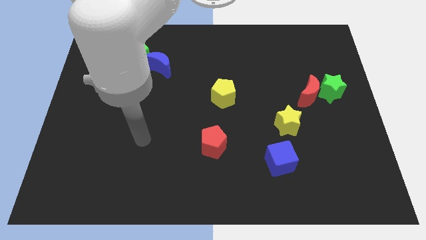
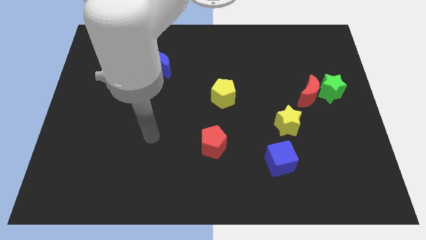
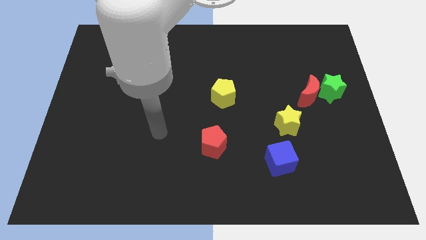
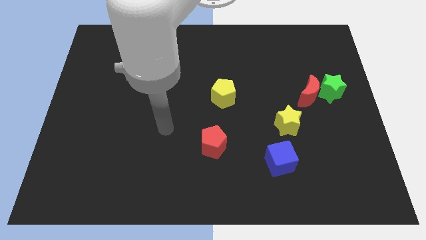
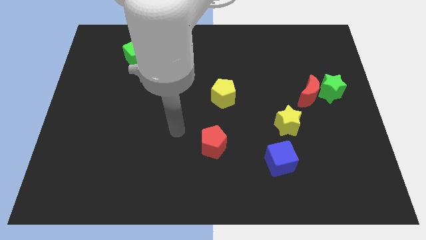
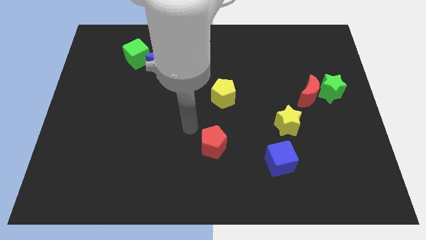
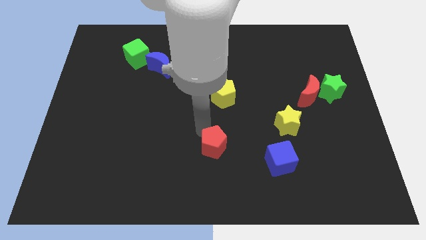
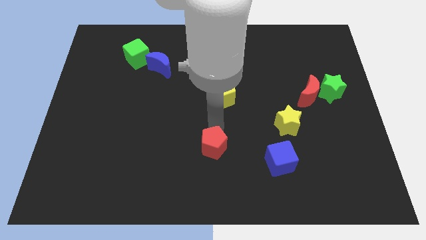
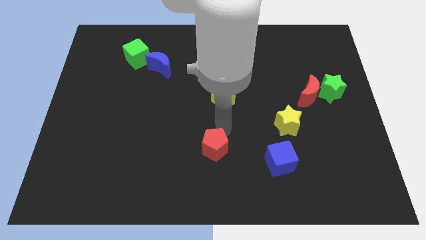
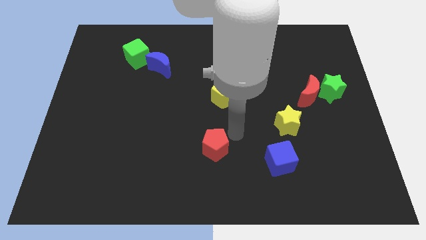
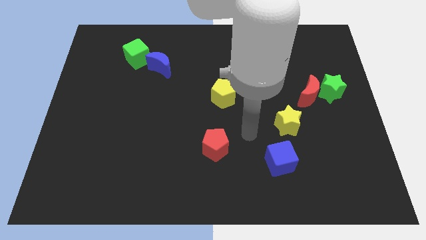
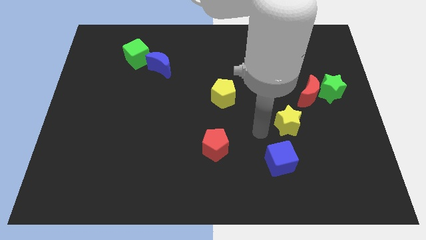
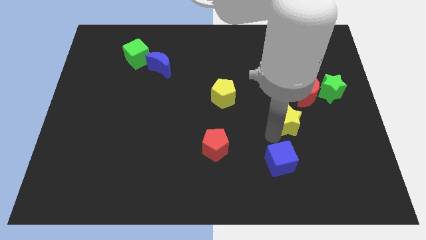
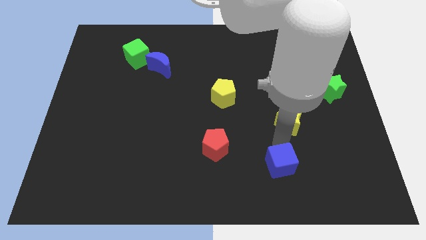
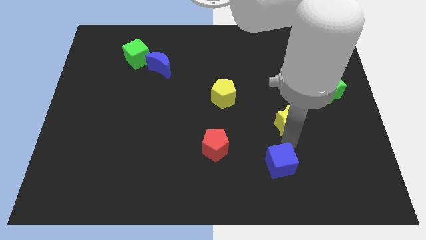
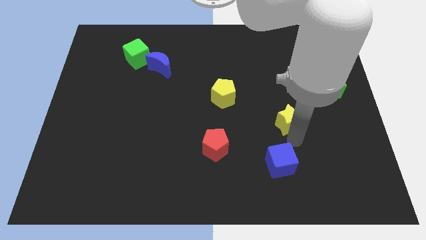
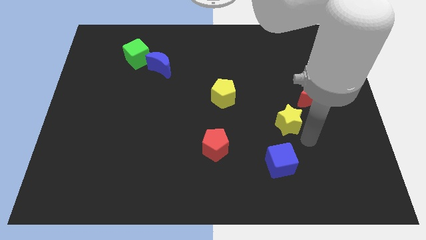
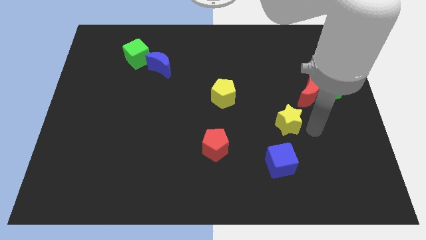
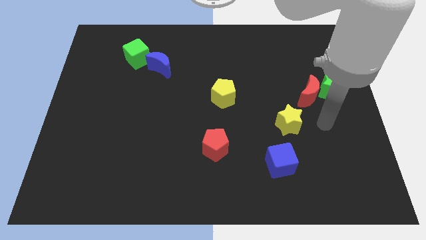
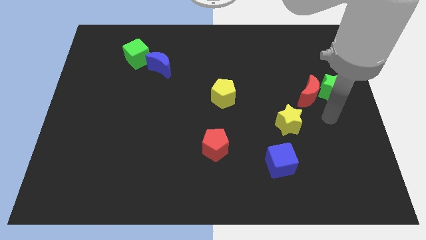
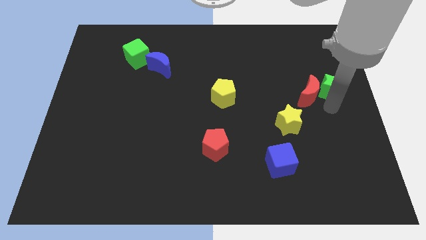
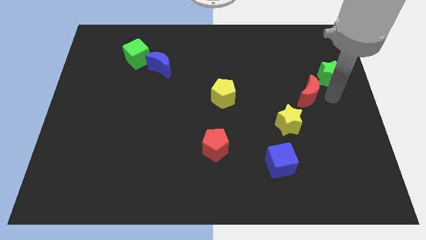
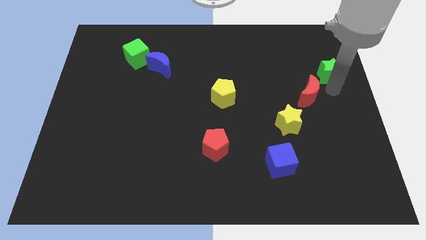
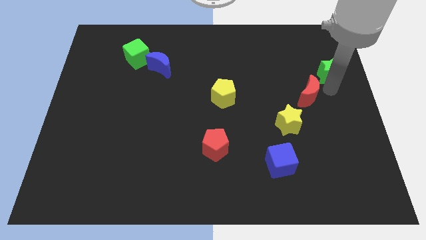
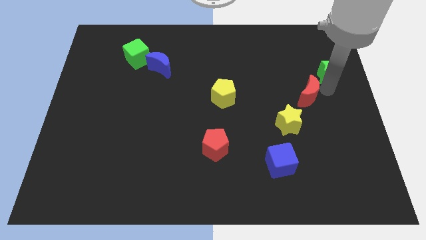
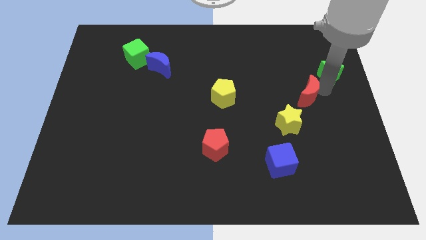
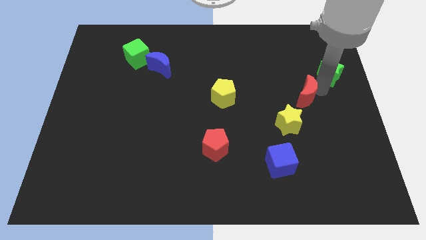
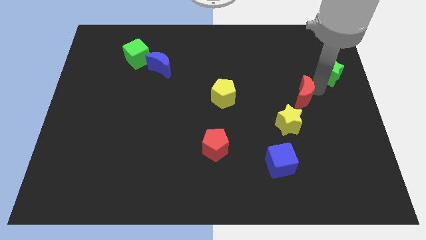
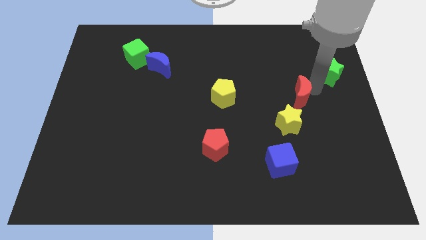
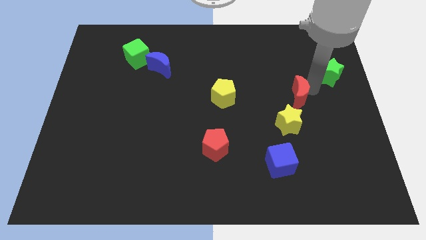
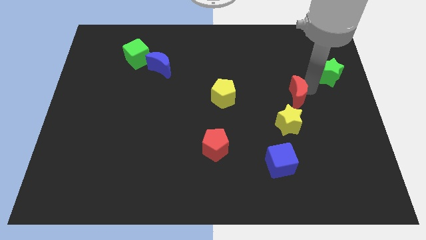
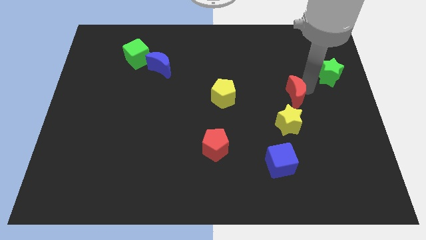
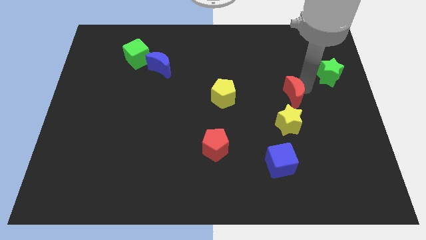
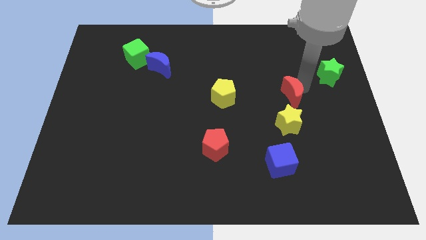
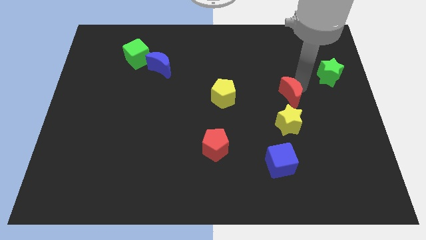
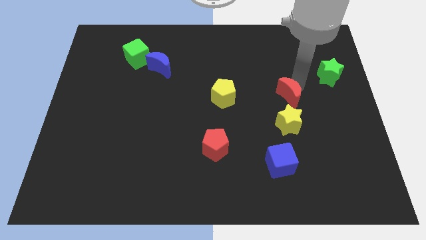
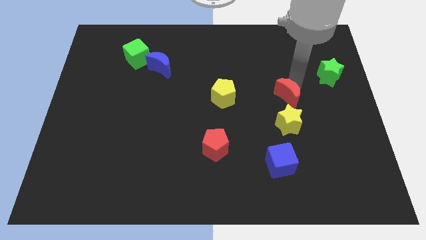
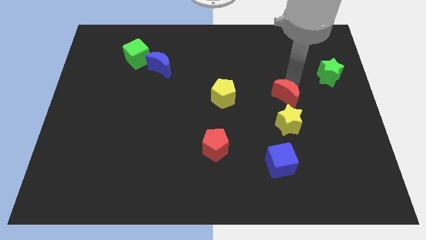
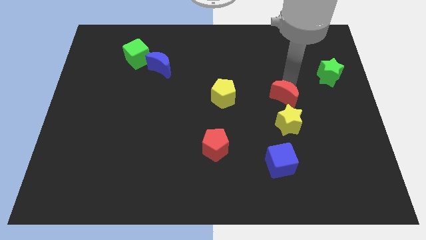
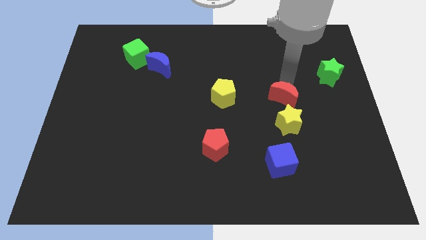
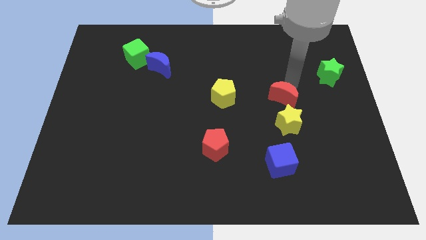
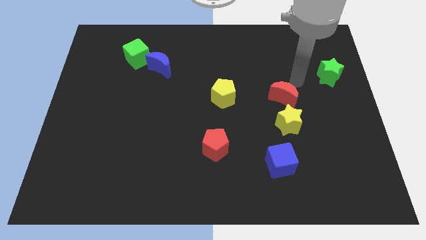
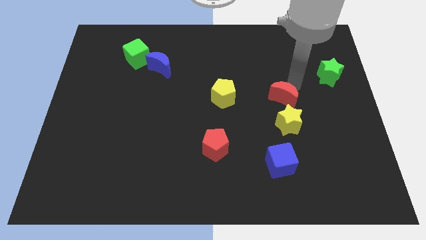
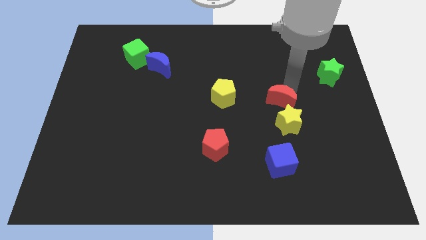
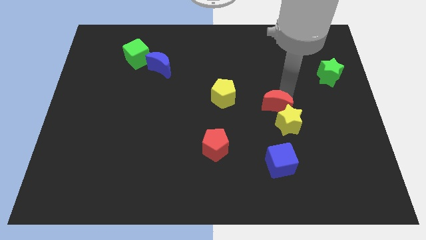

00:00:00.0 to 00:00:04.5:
slide the red moon downwards and to the left somewhat

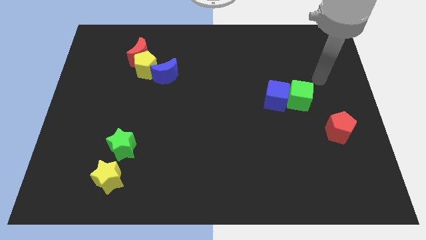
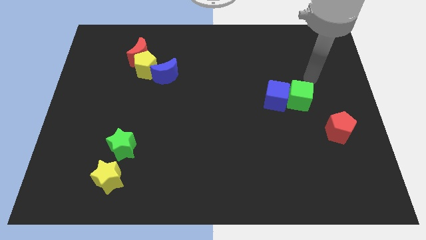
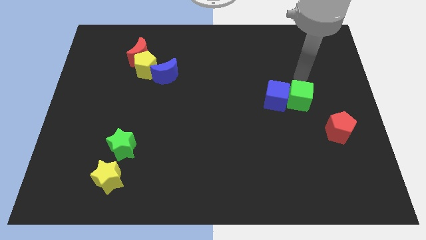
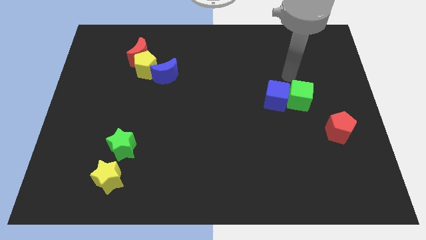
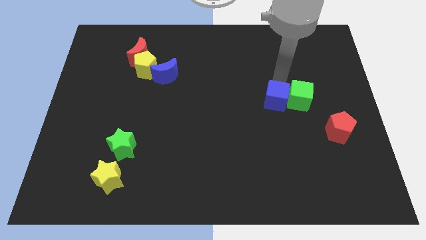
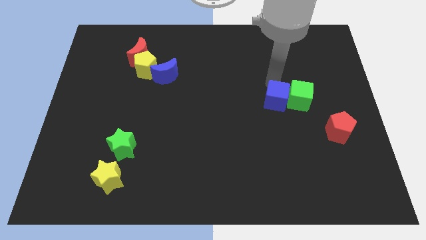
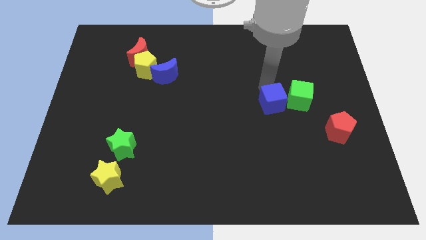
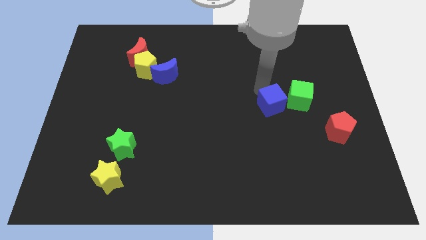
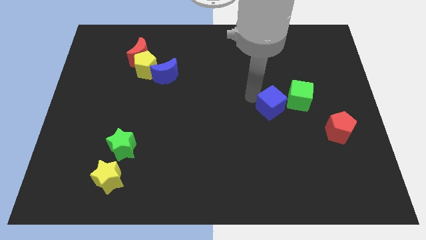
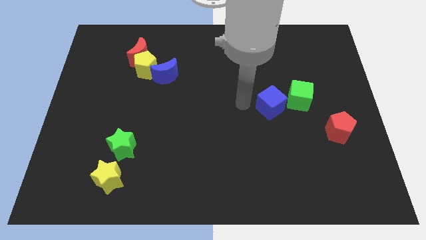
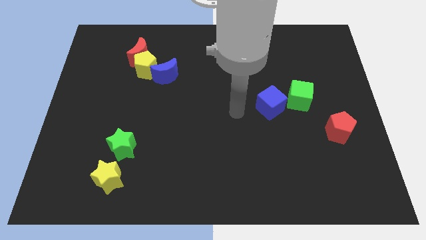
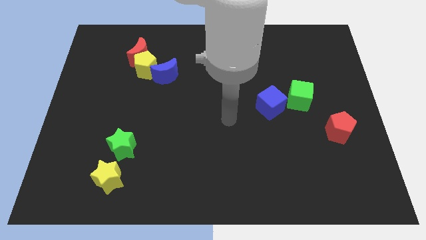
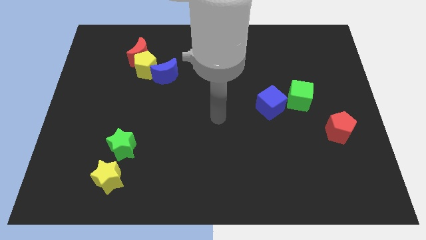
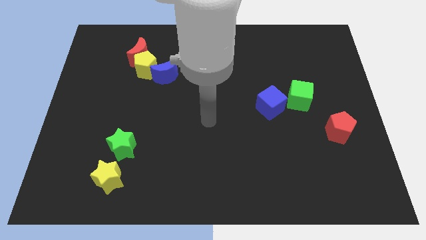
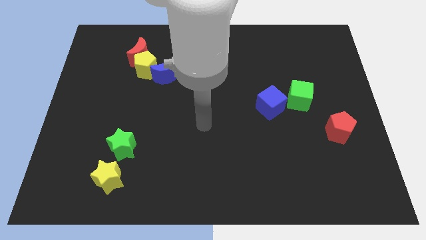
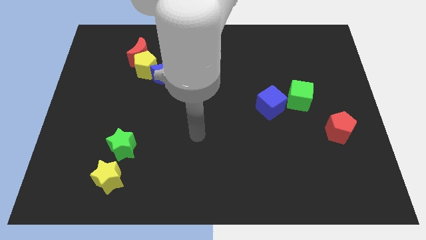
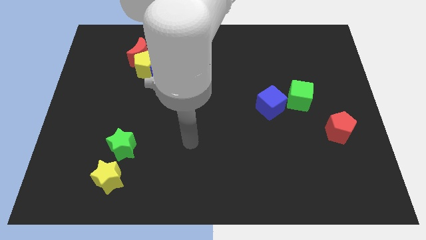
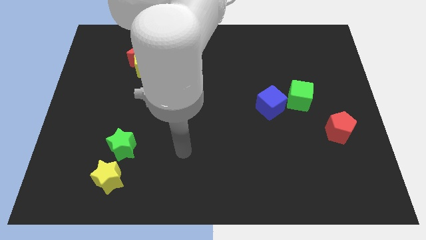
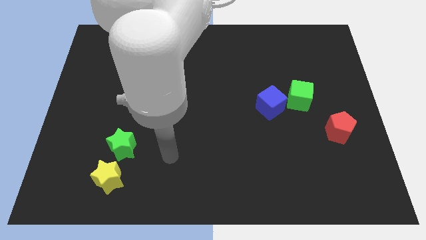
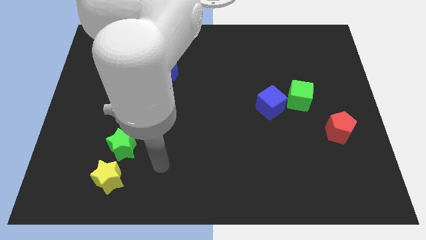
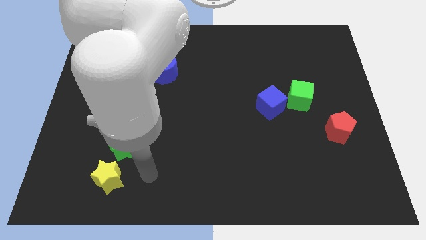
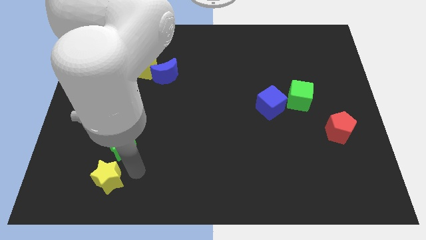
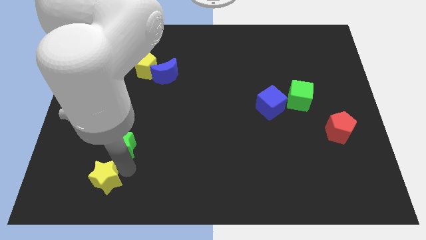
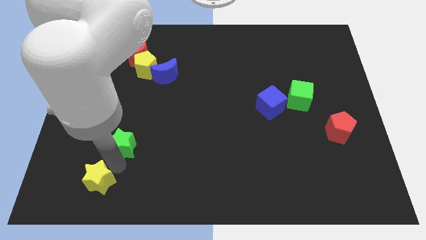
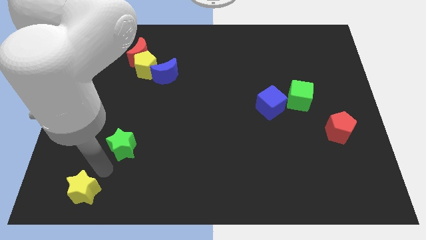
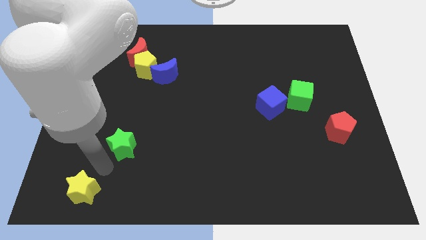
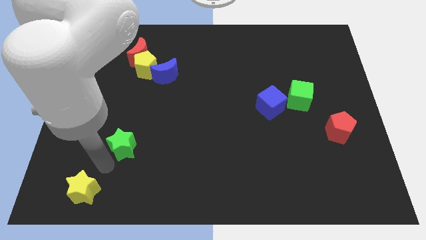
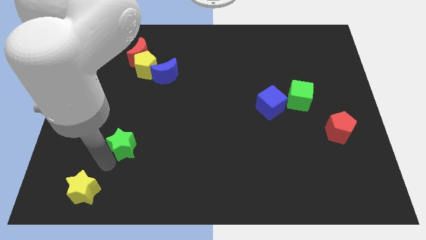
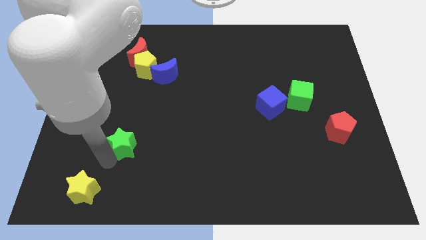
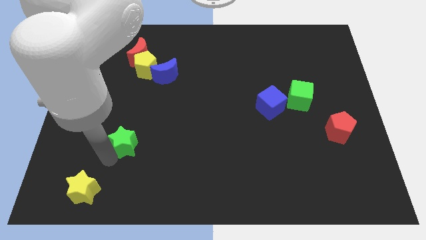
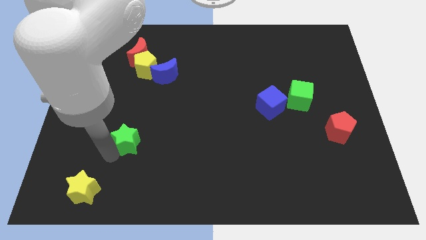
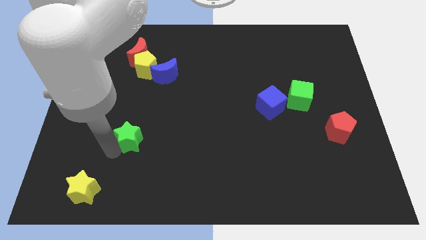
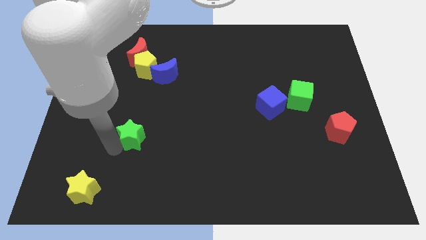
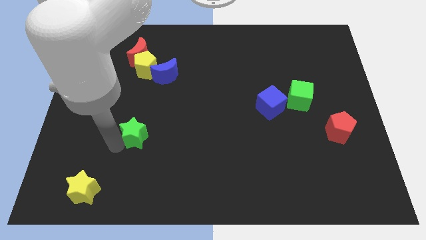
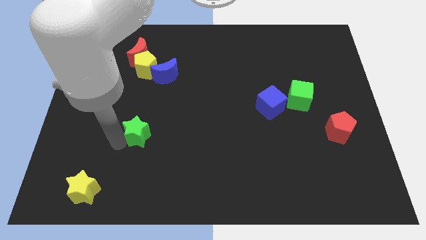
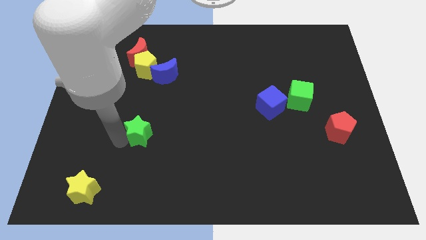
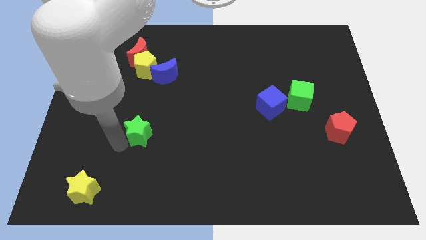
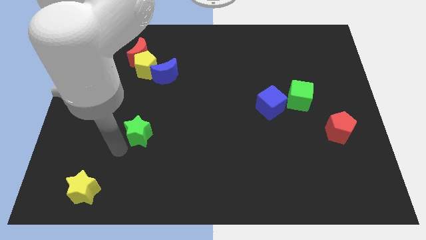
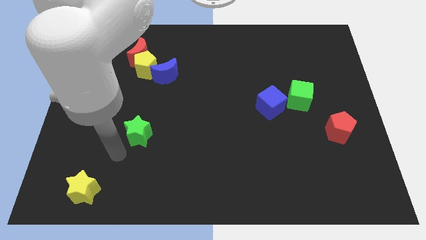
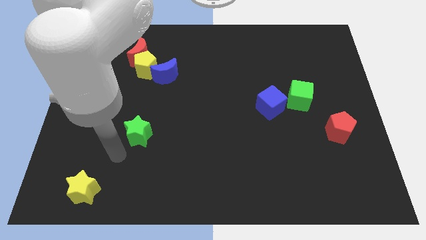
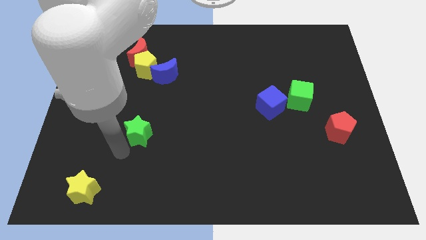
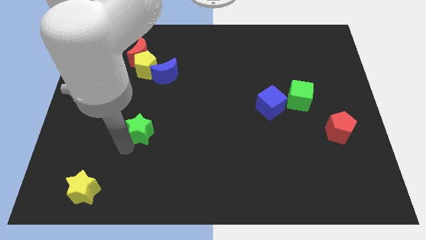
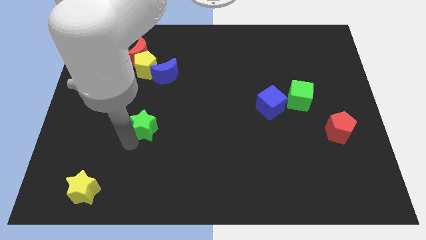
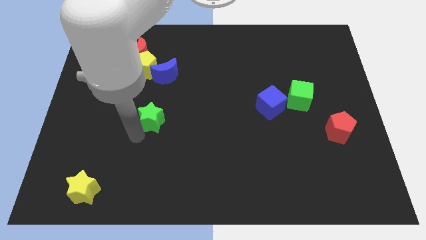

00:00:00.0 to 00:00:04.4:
push the green star a little upwards and right diagonally
